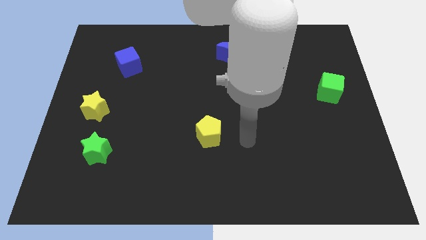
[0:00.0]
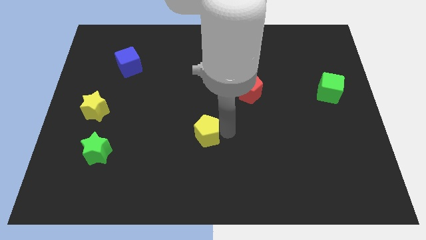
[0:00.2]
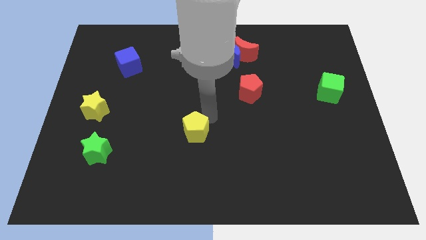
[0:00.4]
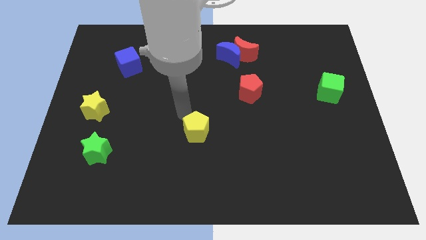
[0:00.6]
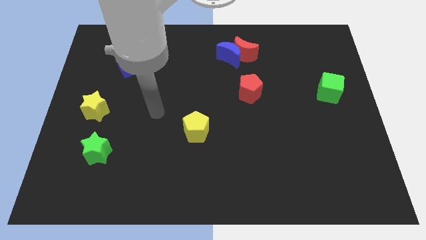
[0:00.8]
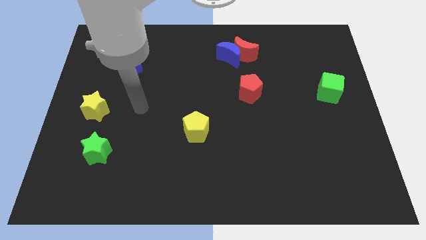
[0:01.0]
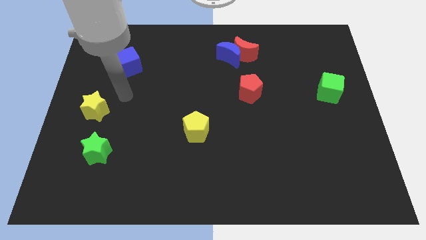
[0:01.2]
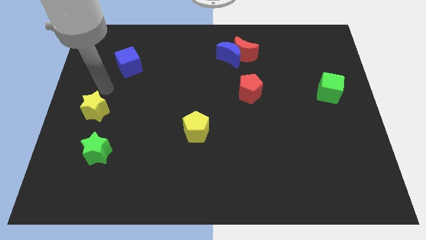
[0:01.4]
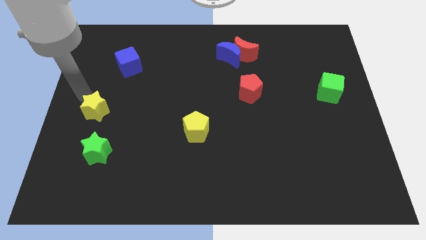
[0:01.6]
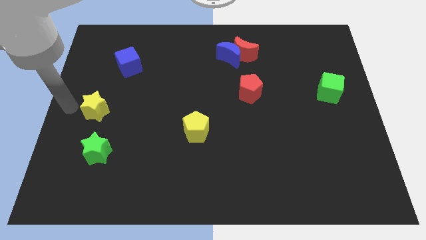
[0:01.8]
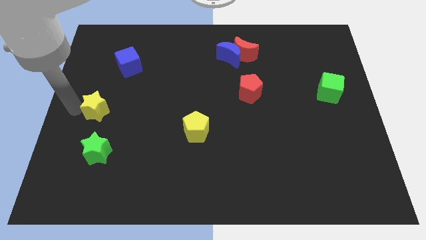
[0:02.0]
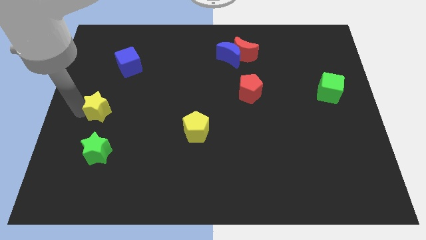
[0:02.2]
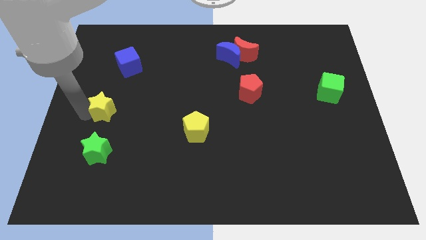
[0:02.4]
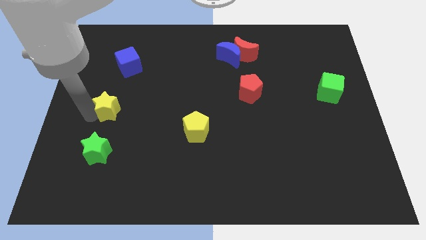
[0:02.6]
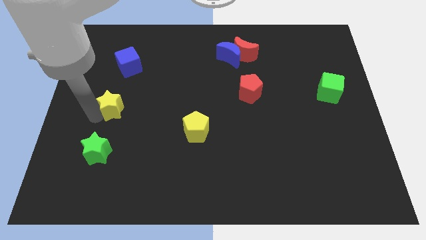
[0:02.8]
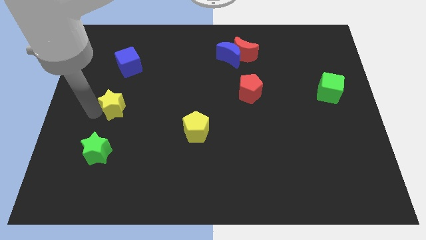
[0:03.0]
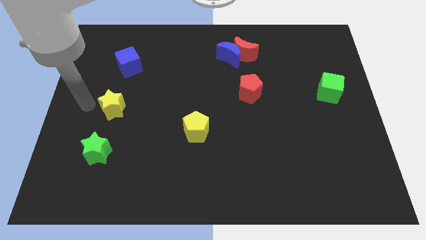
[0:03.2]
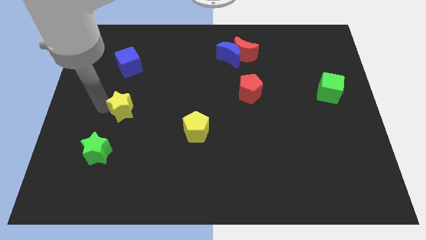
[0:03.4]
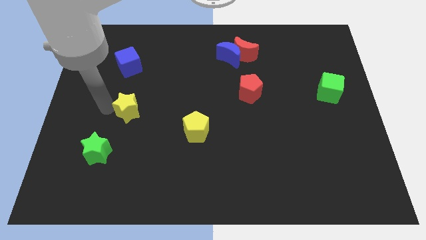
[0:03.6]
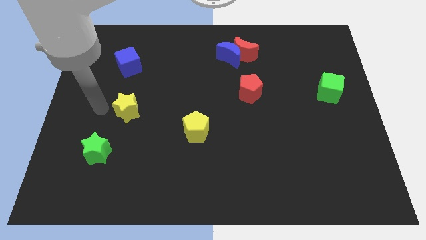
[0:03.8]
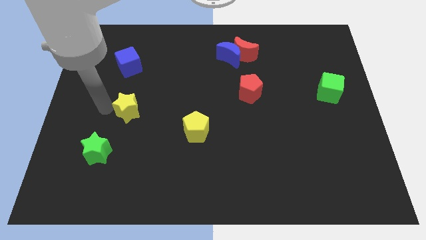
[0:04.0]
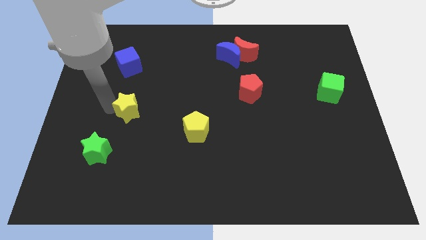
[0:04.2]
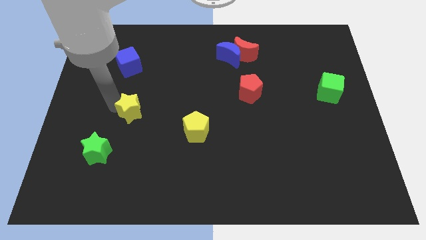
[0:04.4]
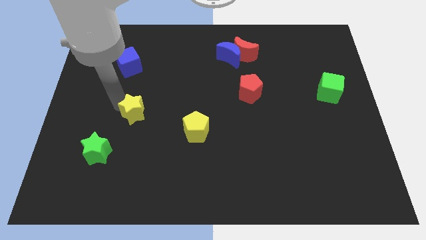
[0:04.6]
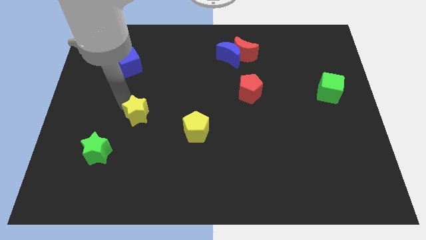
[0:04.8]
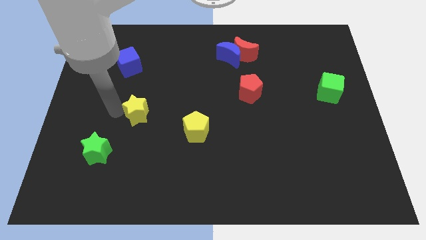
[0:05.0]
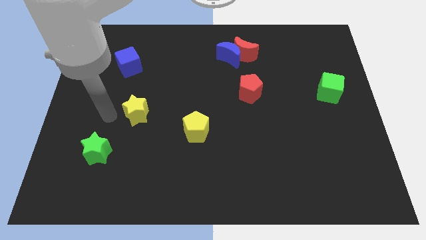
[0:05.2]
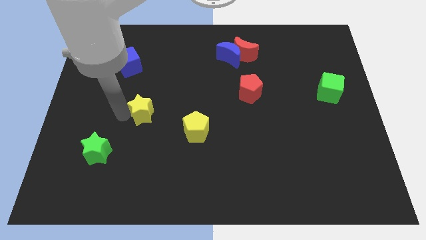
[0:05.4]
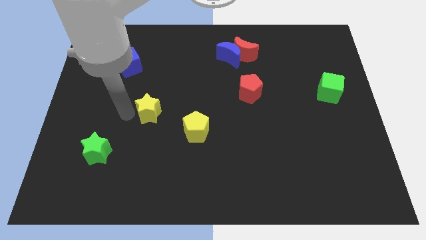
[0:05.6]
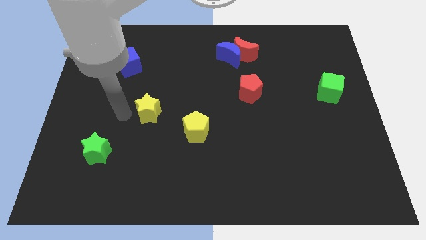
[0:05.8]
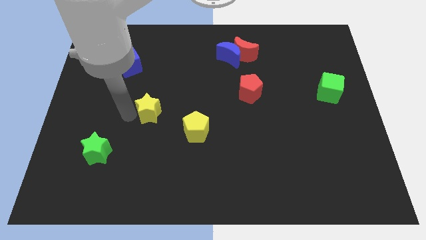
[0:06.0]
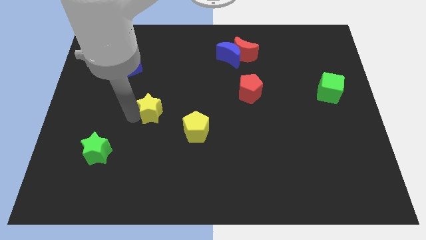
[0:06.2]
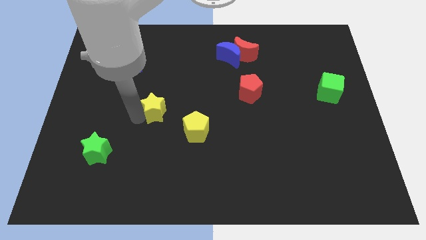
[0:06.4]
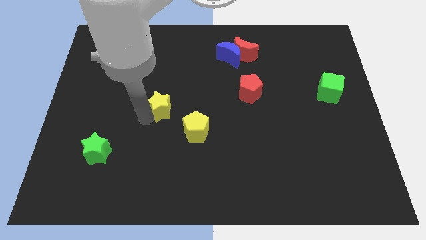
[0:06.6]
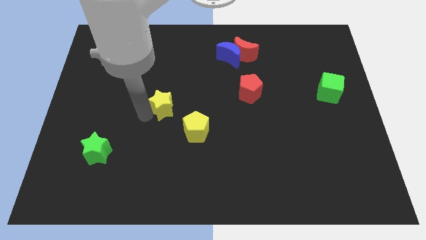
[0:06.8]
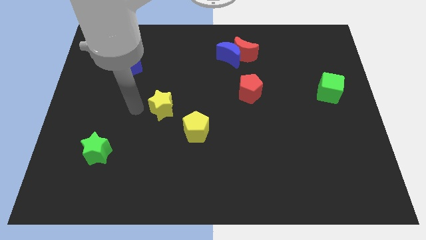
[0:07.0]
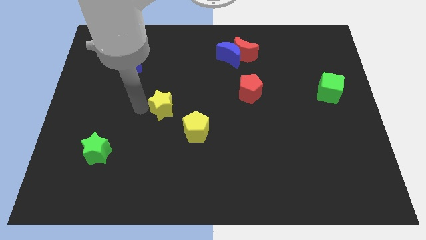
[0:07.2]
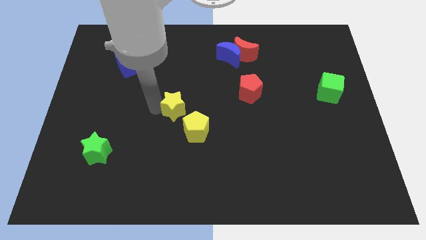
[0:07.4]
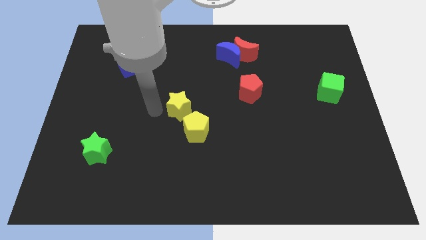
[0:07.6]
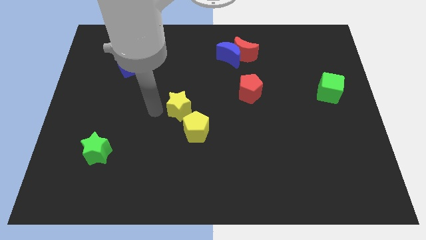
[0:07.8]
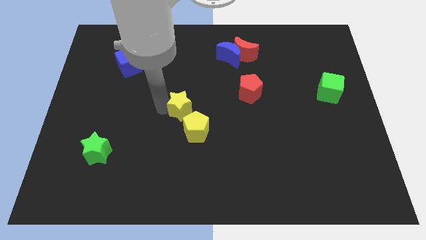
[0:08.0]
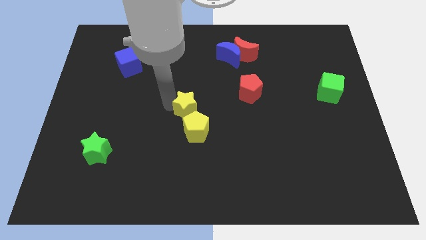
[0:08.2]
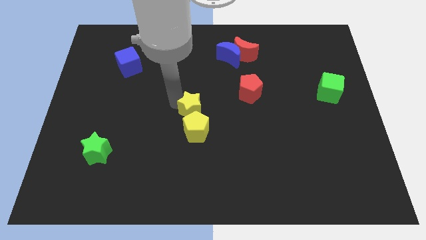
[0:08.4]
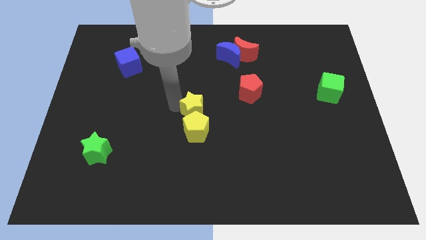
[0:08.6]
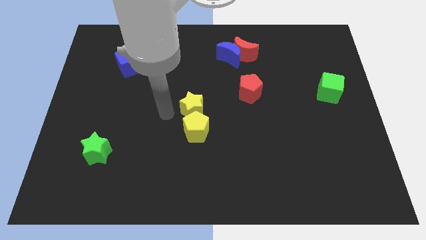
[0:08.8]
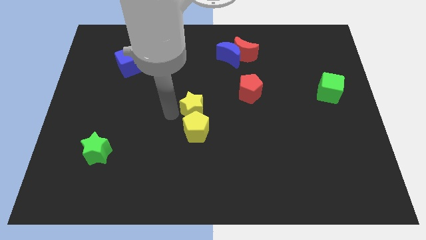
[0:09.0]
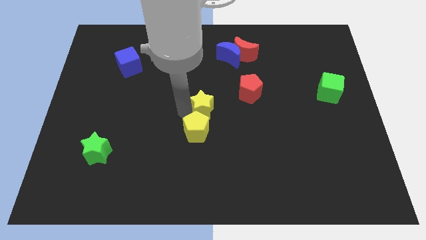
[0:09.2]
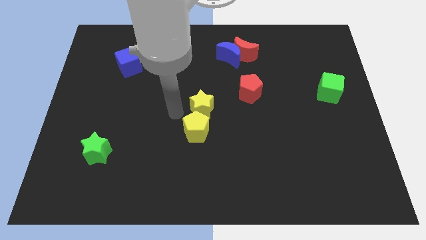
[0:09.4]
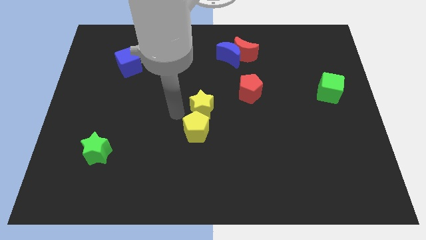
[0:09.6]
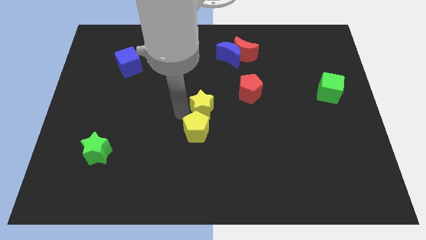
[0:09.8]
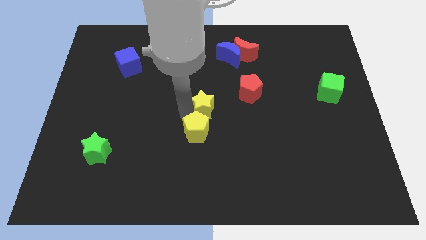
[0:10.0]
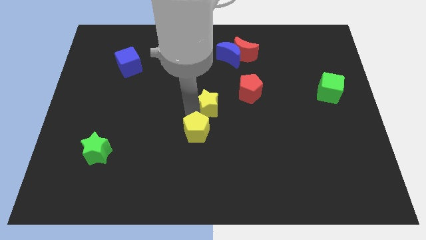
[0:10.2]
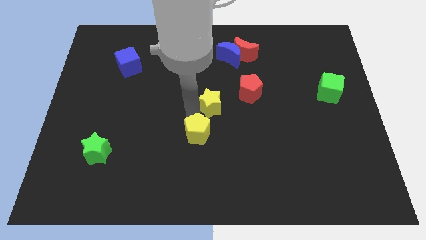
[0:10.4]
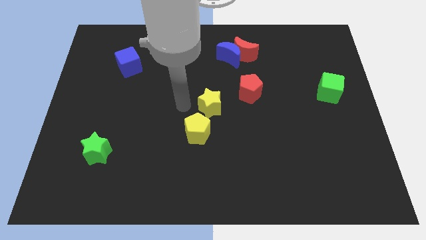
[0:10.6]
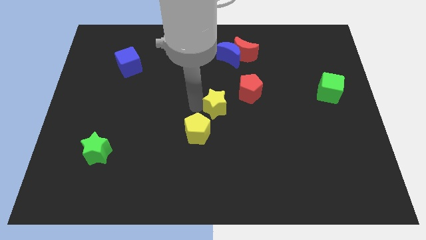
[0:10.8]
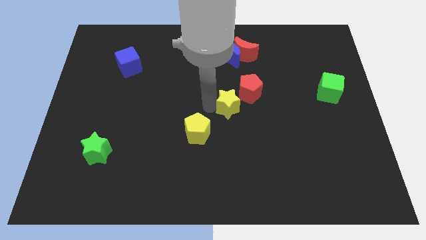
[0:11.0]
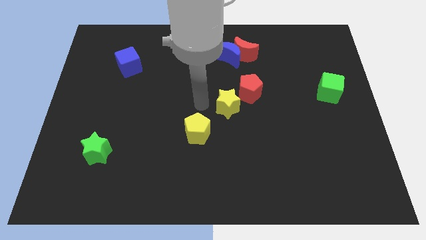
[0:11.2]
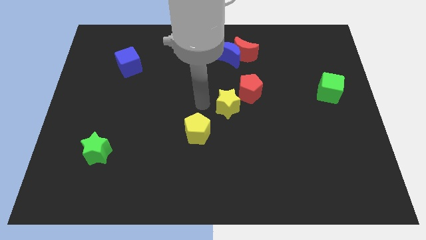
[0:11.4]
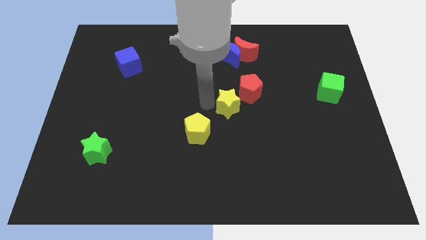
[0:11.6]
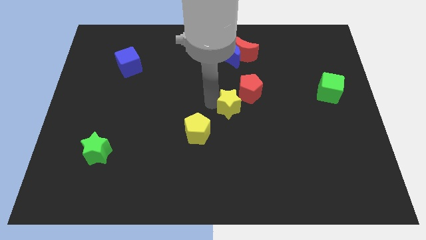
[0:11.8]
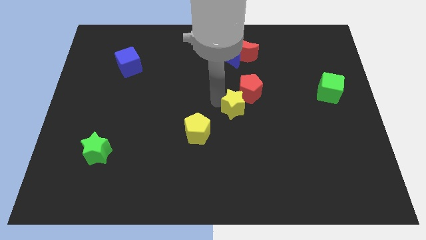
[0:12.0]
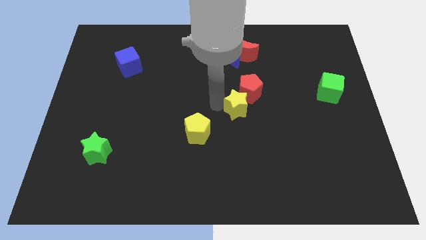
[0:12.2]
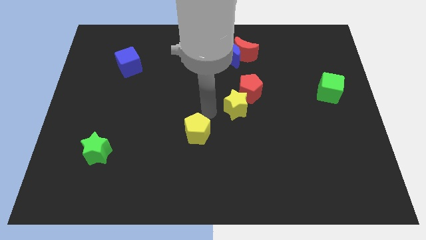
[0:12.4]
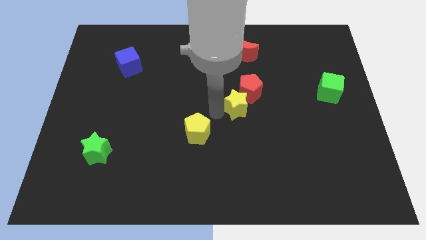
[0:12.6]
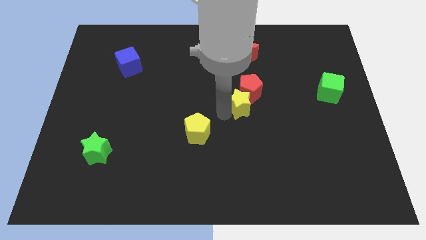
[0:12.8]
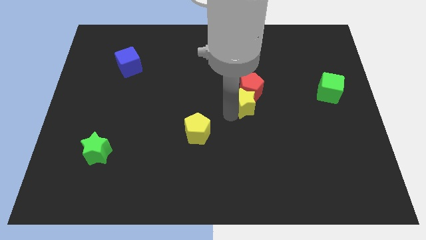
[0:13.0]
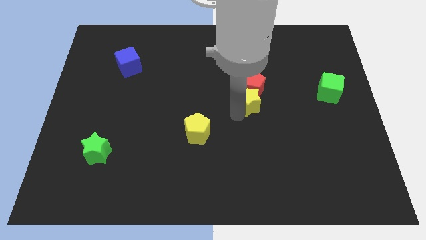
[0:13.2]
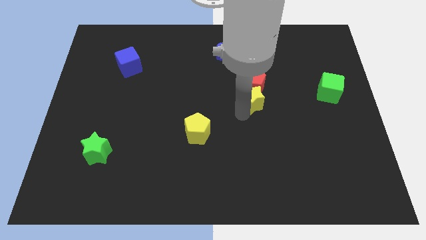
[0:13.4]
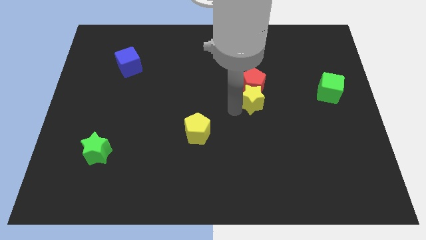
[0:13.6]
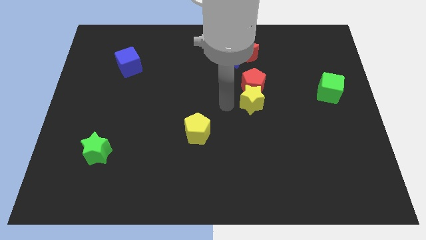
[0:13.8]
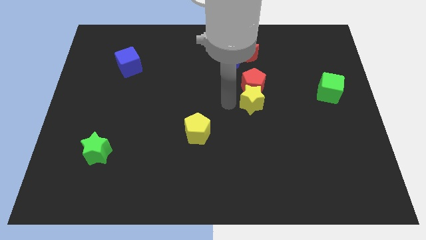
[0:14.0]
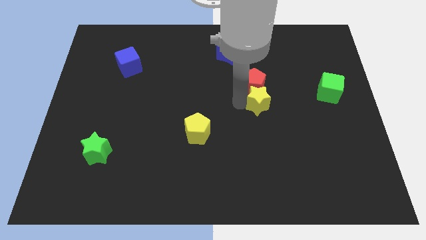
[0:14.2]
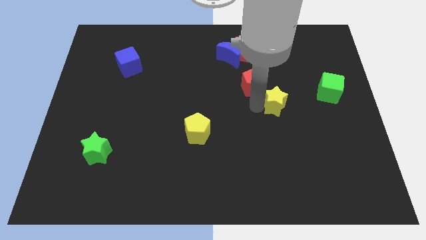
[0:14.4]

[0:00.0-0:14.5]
move the yellow star to the left side of the green cube
